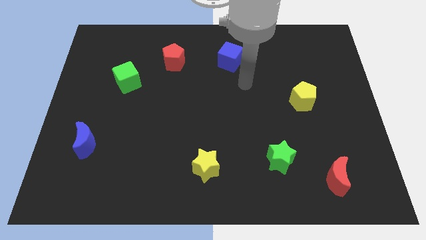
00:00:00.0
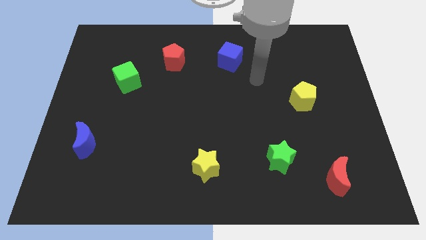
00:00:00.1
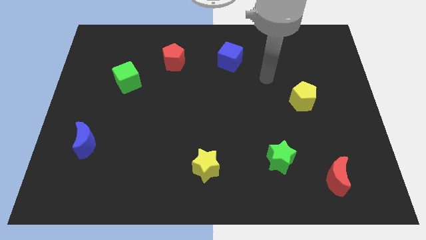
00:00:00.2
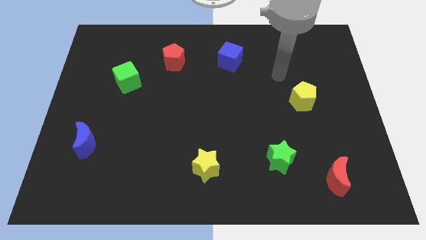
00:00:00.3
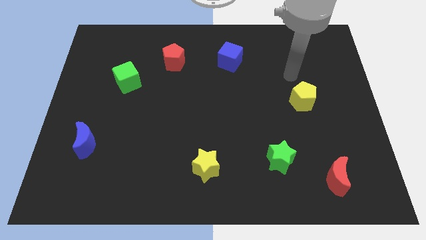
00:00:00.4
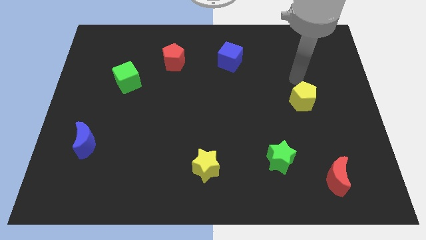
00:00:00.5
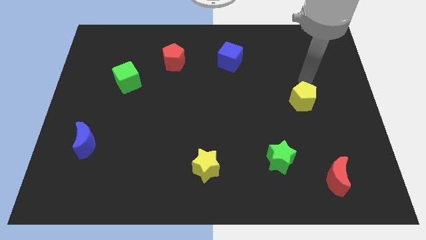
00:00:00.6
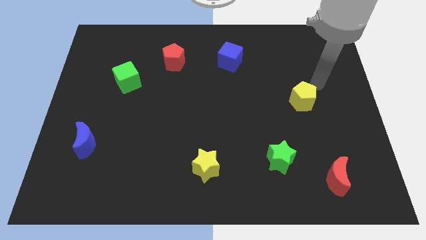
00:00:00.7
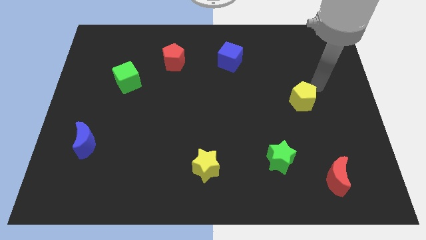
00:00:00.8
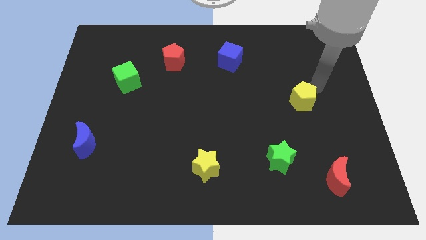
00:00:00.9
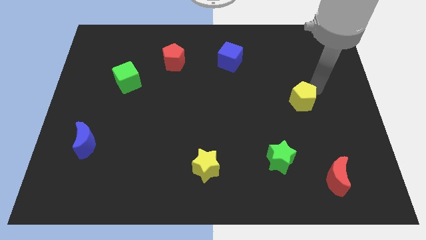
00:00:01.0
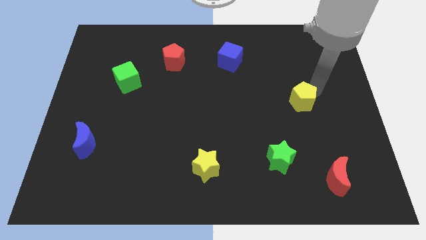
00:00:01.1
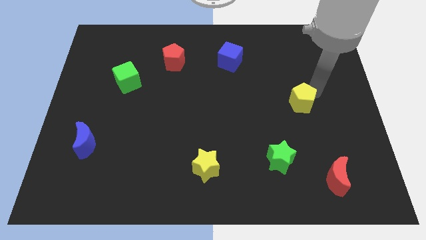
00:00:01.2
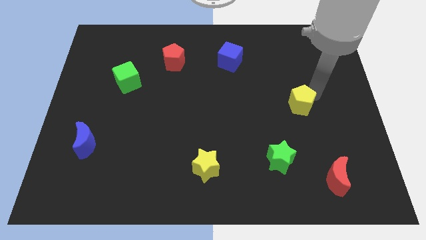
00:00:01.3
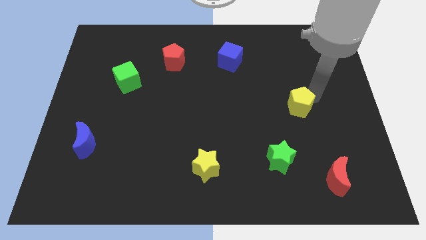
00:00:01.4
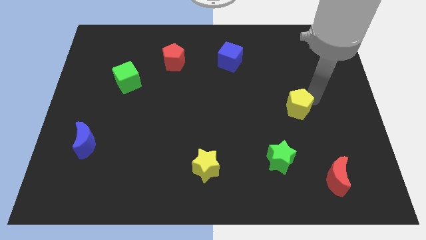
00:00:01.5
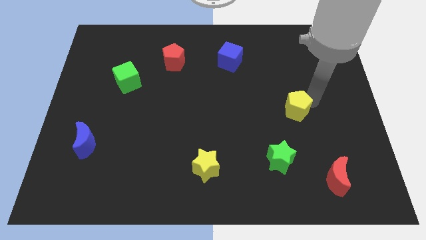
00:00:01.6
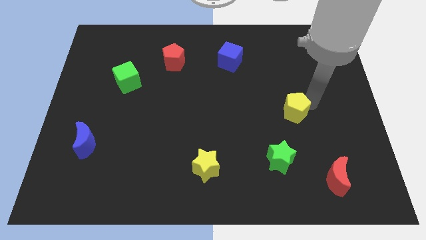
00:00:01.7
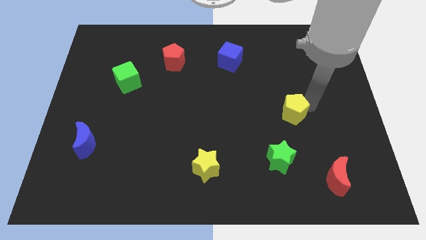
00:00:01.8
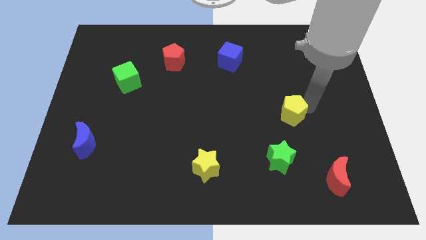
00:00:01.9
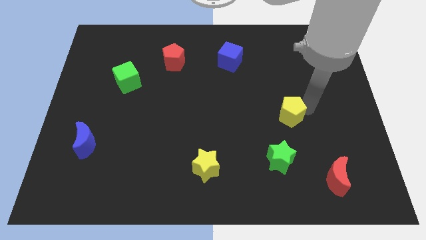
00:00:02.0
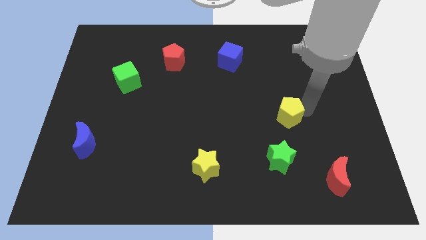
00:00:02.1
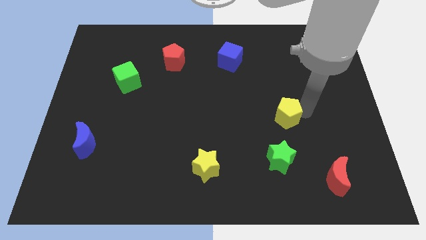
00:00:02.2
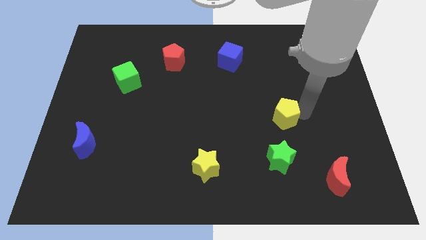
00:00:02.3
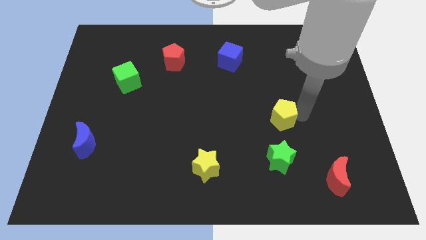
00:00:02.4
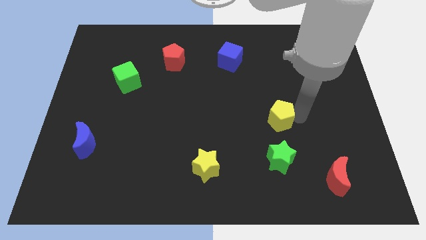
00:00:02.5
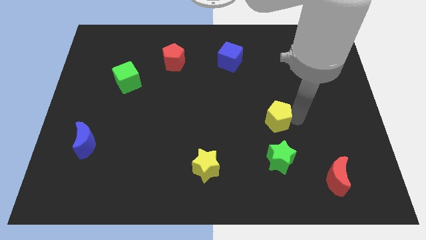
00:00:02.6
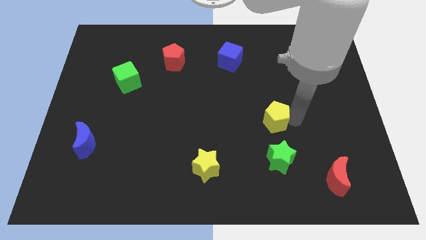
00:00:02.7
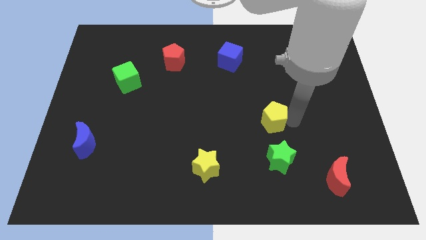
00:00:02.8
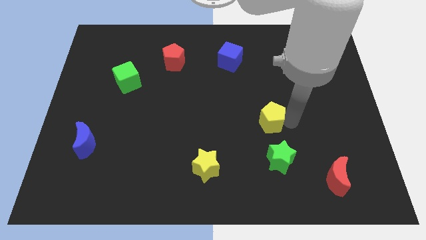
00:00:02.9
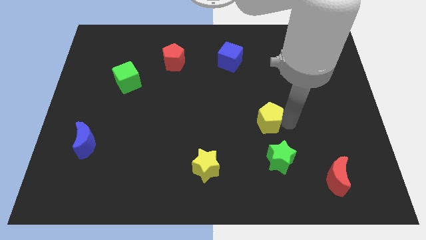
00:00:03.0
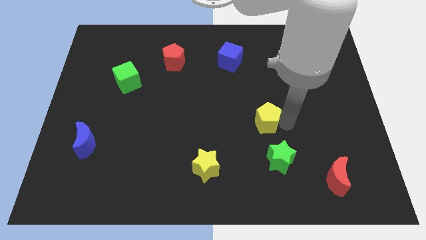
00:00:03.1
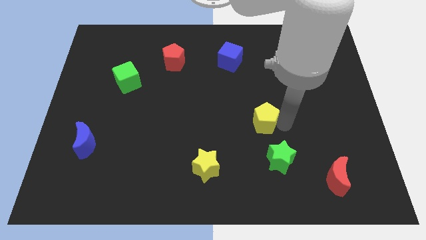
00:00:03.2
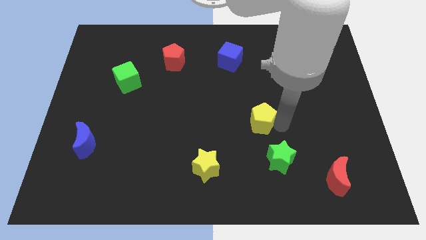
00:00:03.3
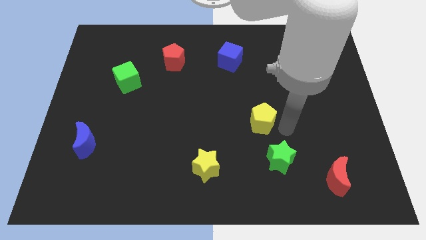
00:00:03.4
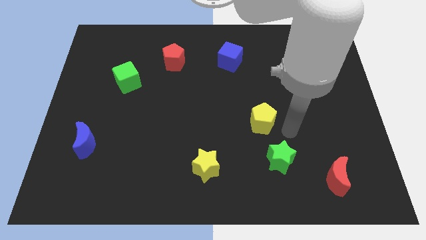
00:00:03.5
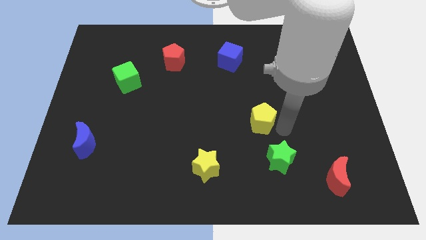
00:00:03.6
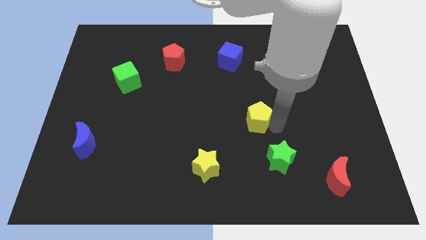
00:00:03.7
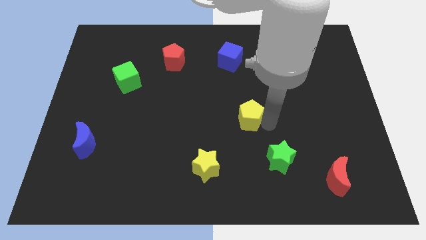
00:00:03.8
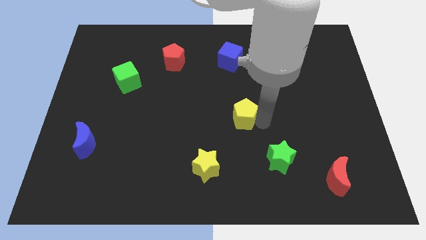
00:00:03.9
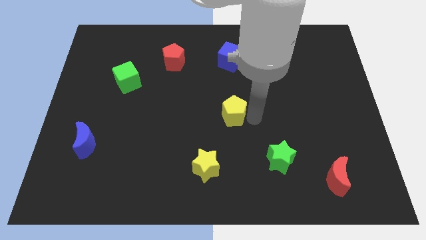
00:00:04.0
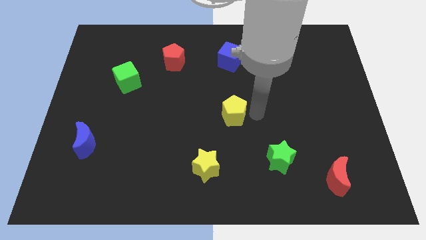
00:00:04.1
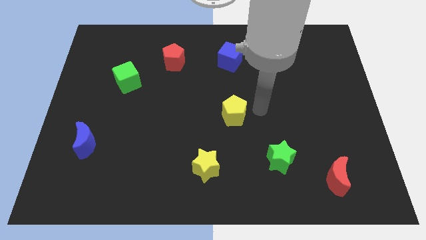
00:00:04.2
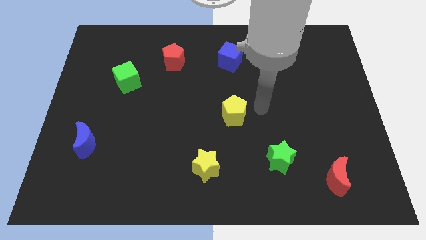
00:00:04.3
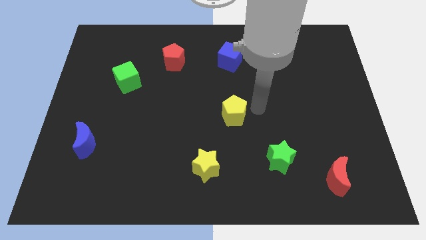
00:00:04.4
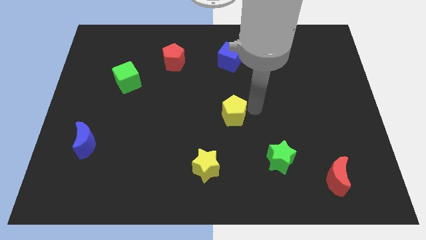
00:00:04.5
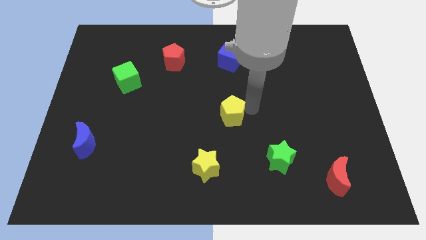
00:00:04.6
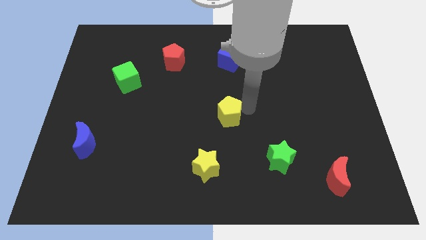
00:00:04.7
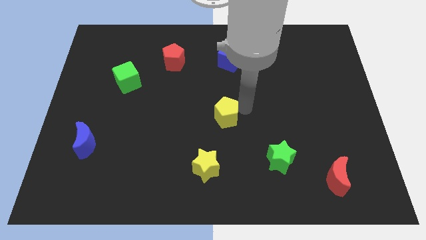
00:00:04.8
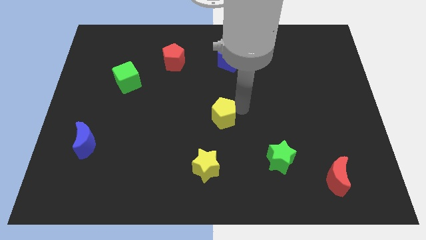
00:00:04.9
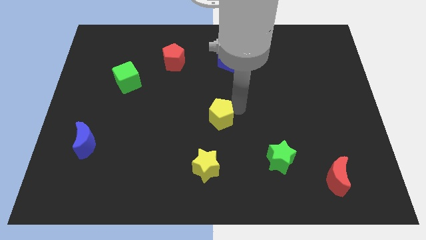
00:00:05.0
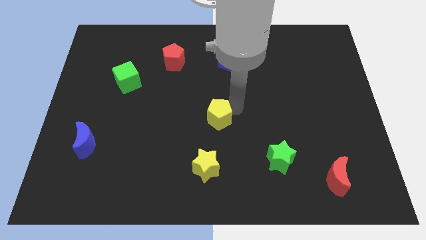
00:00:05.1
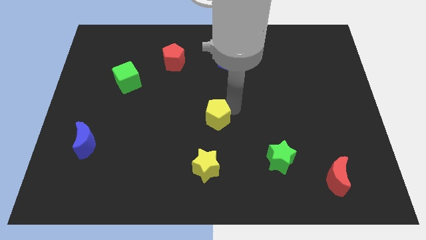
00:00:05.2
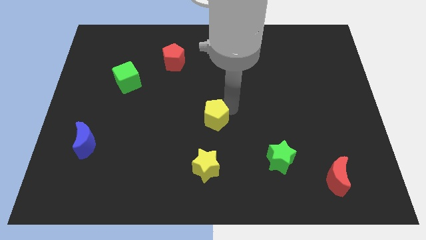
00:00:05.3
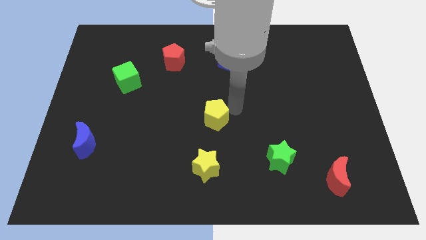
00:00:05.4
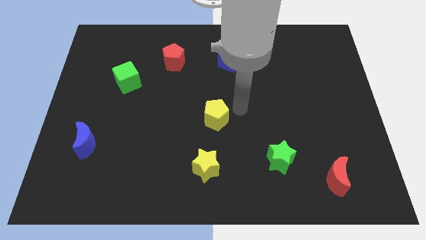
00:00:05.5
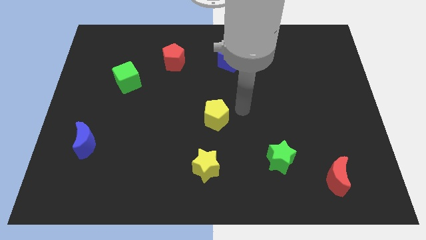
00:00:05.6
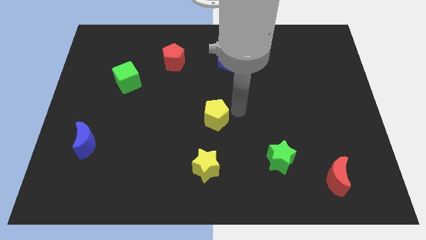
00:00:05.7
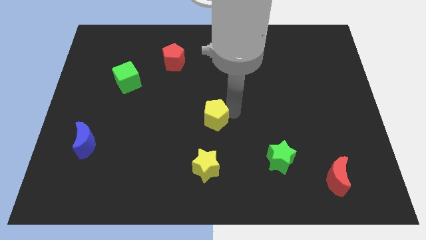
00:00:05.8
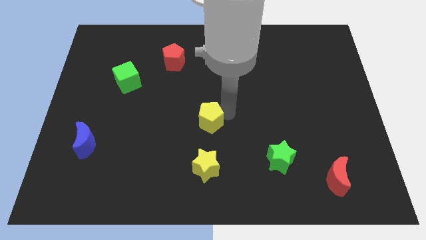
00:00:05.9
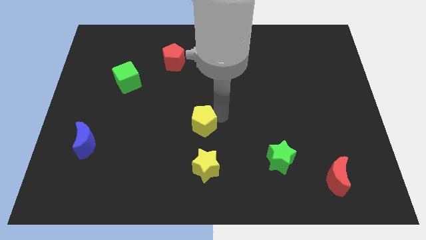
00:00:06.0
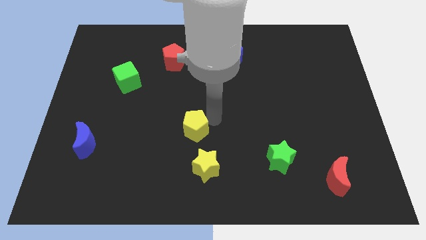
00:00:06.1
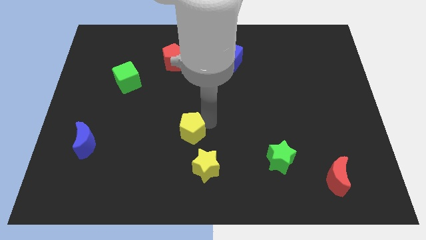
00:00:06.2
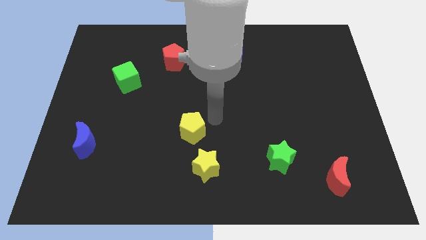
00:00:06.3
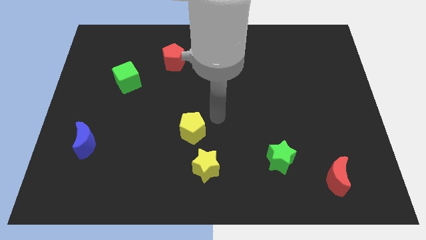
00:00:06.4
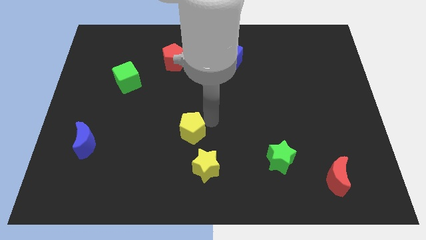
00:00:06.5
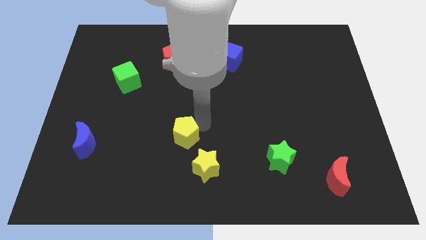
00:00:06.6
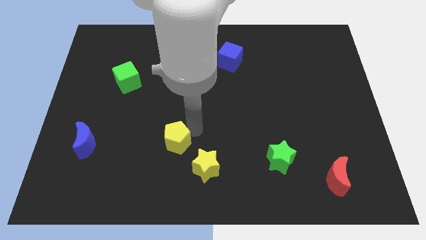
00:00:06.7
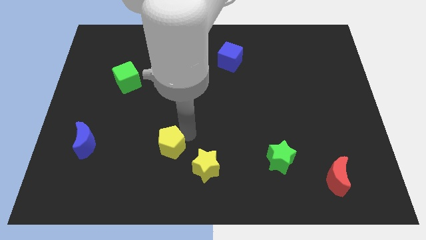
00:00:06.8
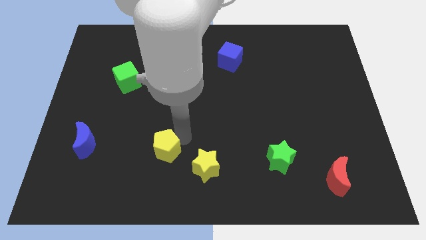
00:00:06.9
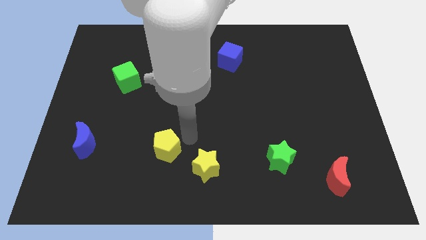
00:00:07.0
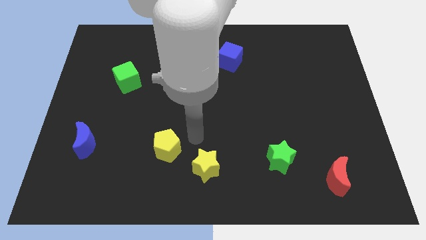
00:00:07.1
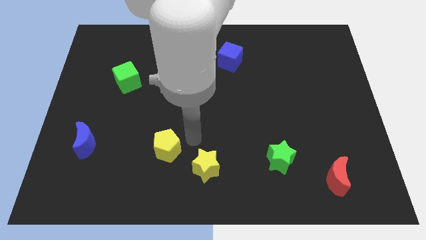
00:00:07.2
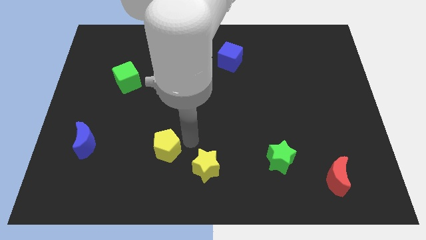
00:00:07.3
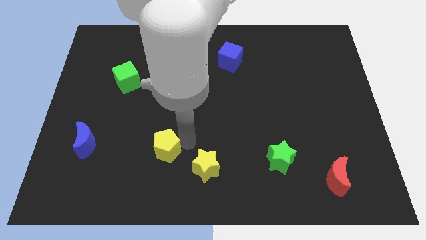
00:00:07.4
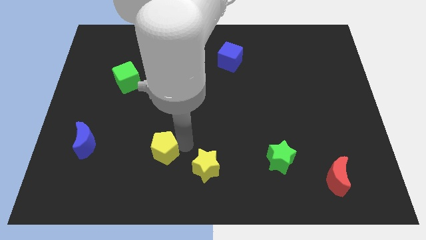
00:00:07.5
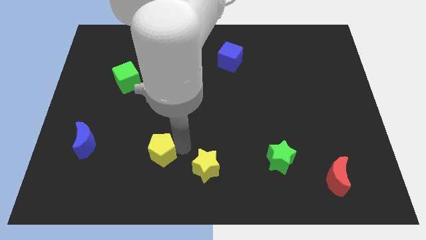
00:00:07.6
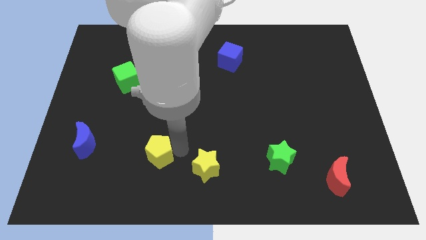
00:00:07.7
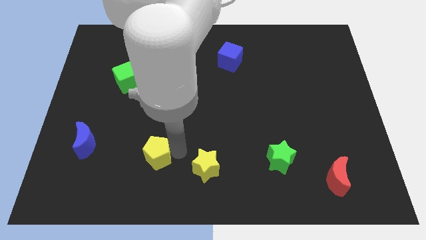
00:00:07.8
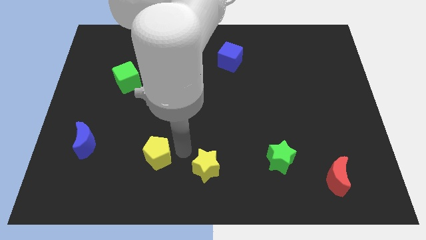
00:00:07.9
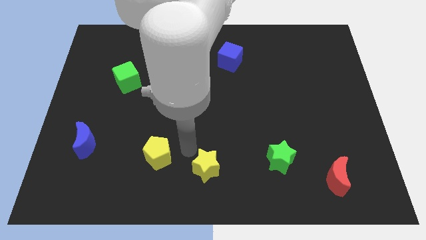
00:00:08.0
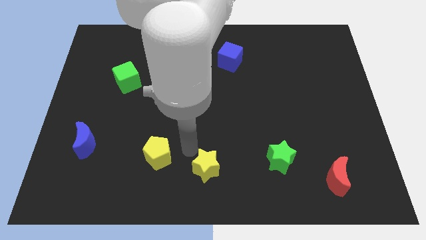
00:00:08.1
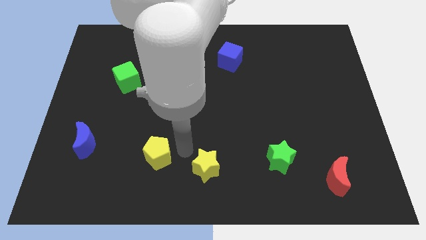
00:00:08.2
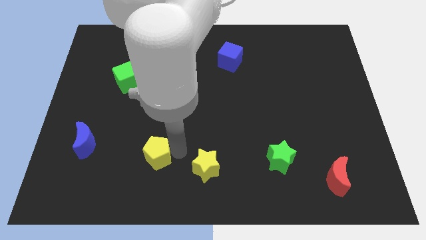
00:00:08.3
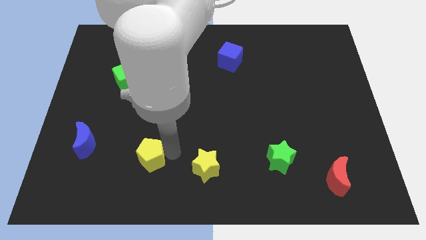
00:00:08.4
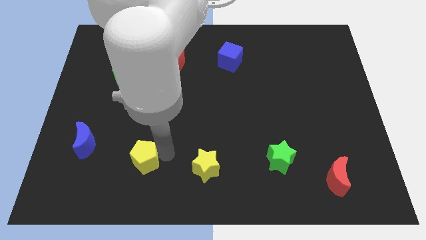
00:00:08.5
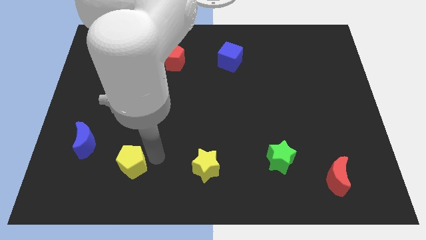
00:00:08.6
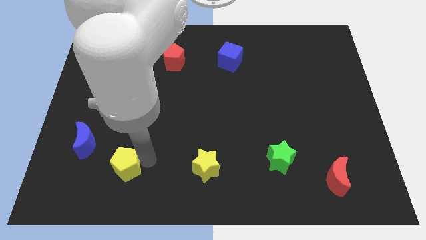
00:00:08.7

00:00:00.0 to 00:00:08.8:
put the yellow pentagon to the bottom right of the blue moon
